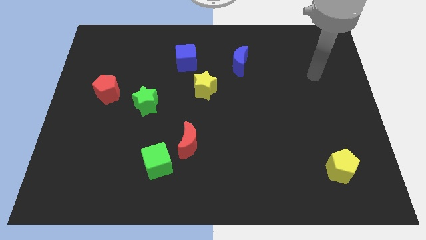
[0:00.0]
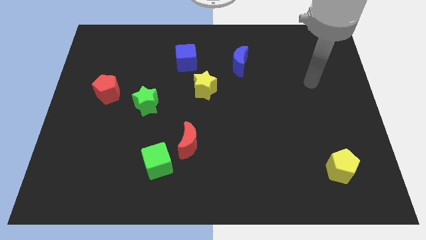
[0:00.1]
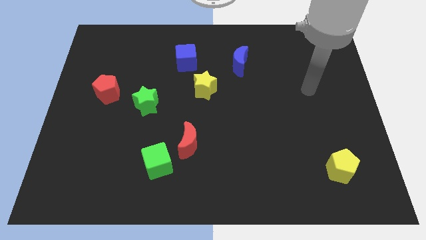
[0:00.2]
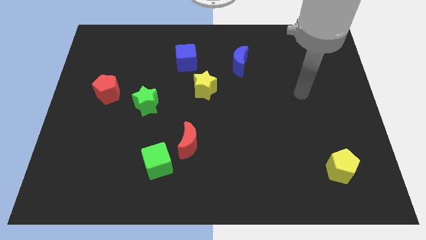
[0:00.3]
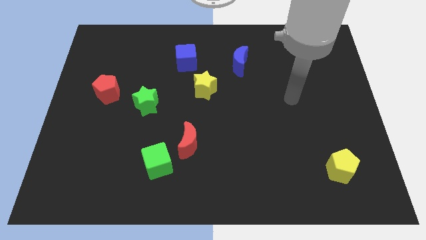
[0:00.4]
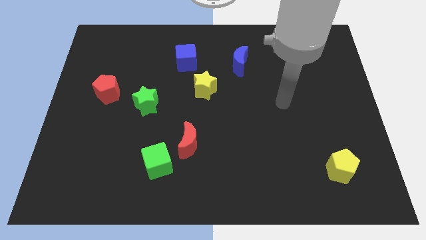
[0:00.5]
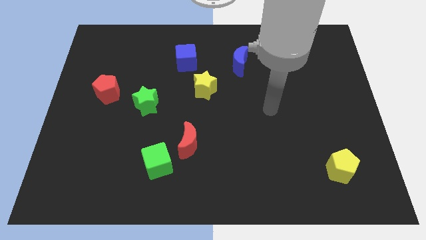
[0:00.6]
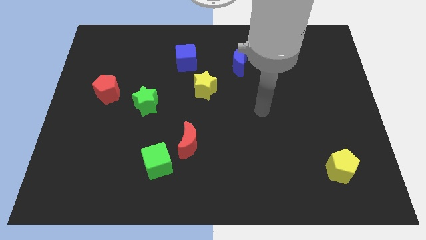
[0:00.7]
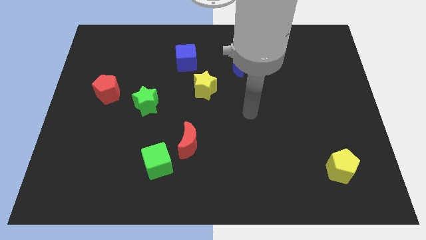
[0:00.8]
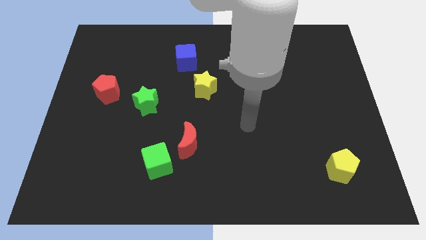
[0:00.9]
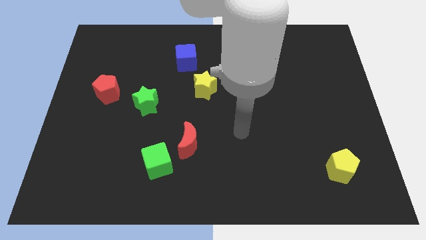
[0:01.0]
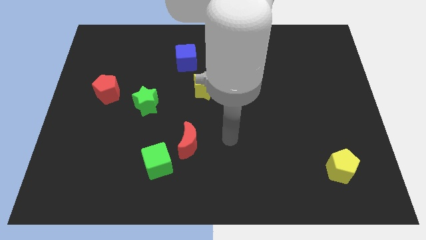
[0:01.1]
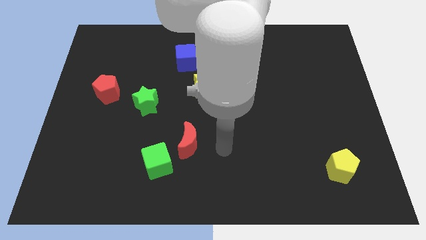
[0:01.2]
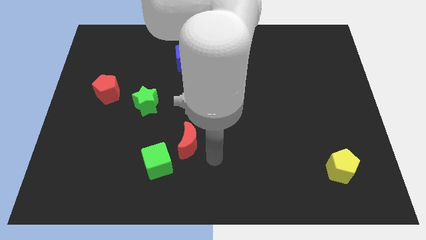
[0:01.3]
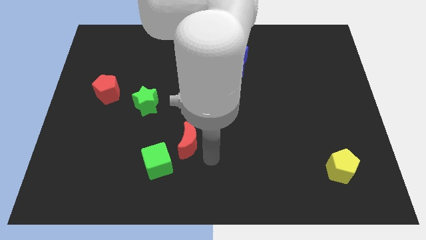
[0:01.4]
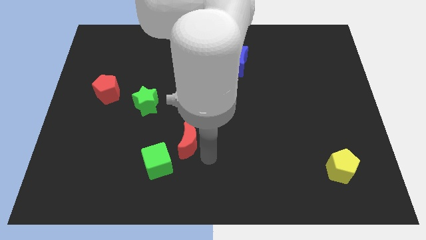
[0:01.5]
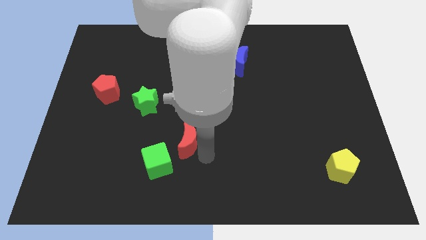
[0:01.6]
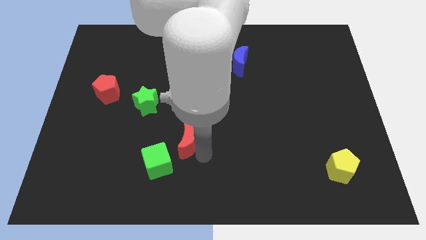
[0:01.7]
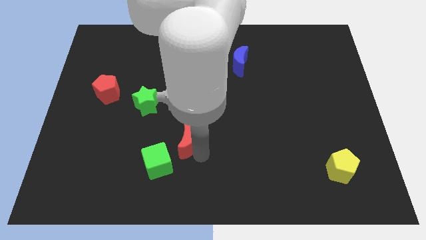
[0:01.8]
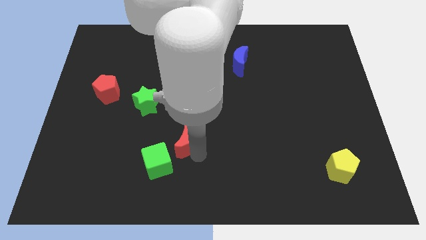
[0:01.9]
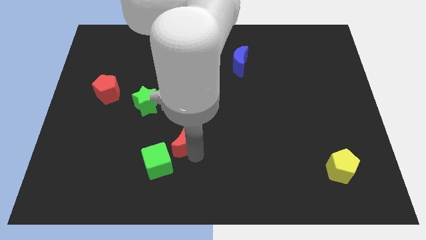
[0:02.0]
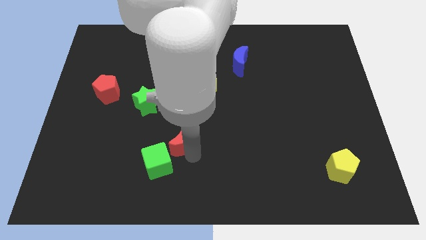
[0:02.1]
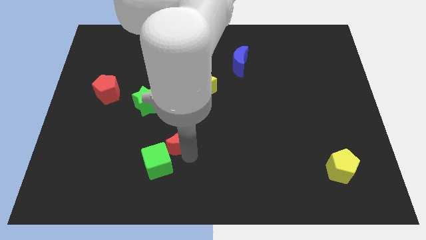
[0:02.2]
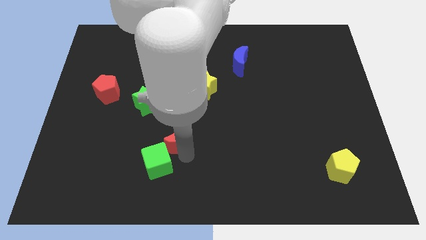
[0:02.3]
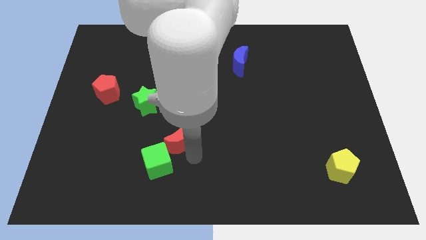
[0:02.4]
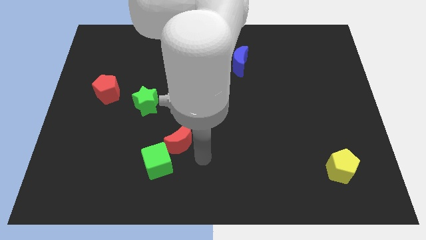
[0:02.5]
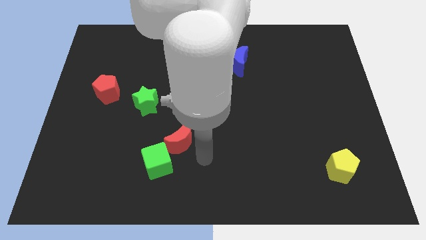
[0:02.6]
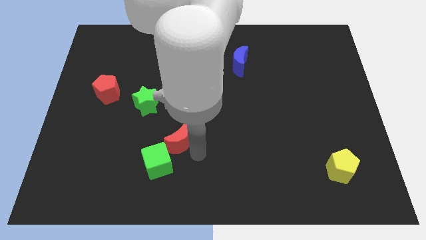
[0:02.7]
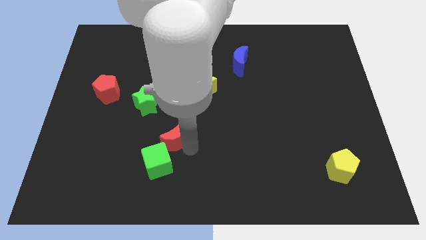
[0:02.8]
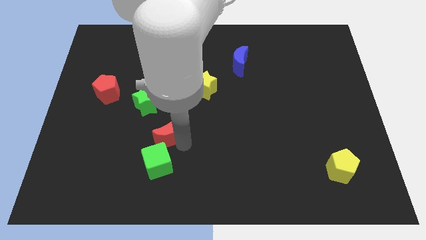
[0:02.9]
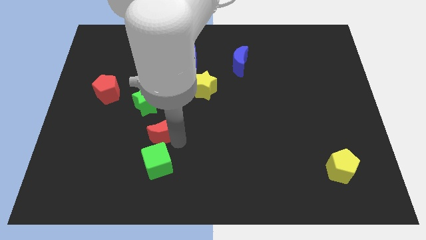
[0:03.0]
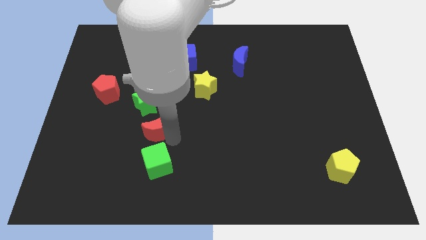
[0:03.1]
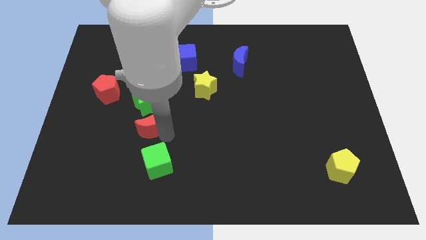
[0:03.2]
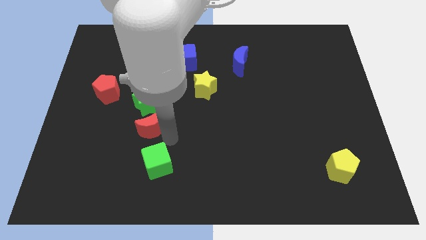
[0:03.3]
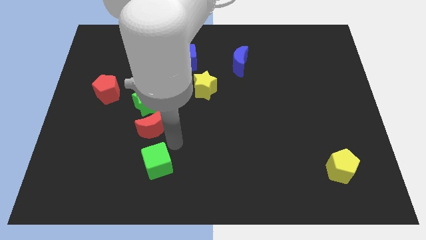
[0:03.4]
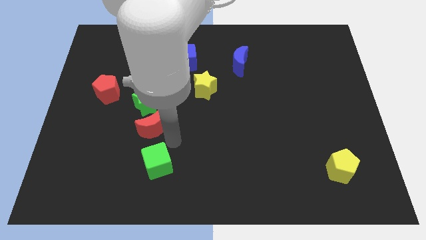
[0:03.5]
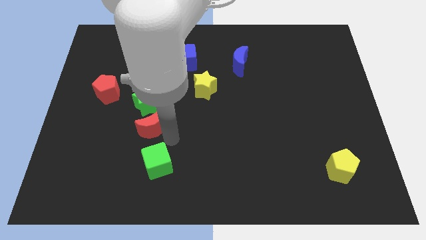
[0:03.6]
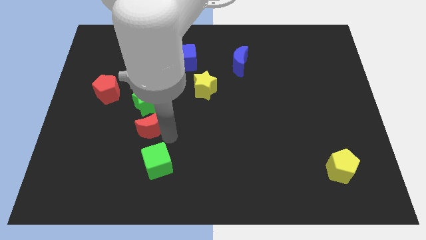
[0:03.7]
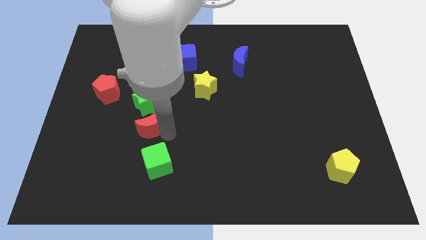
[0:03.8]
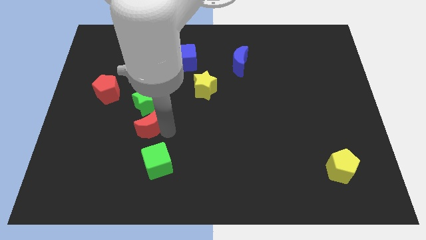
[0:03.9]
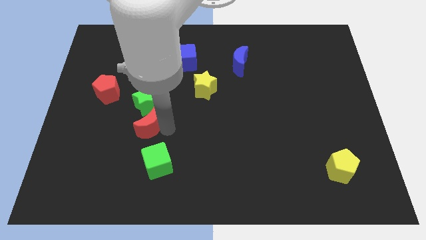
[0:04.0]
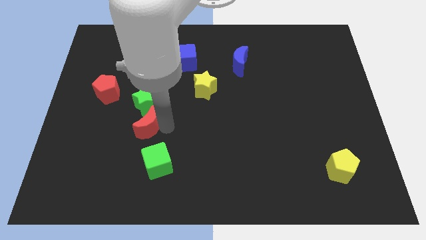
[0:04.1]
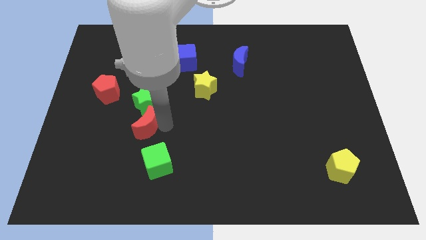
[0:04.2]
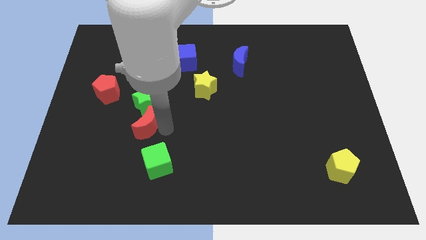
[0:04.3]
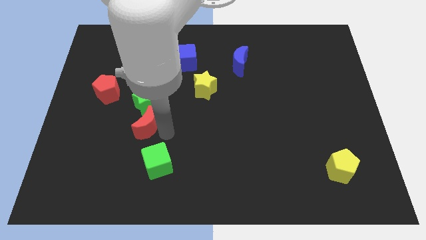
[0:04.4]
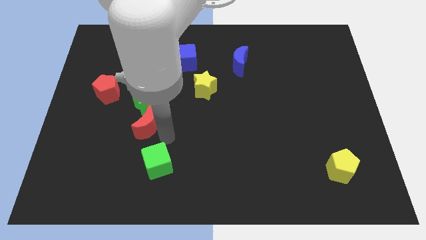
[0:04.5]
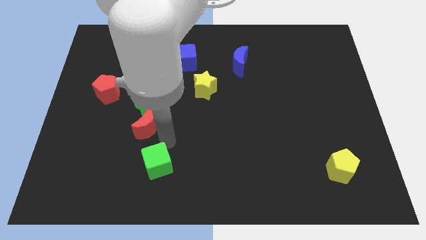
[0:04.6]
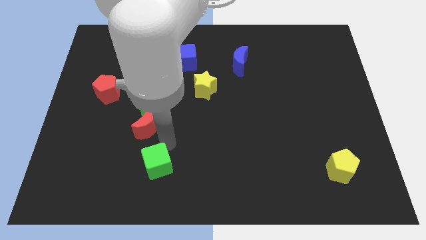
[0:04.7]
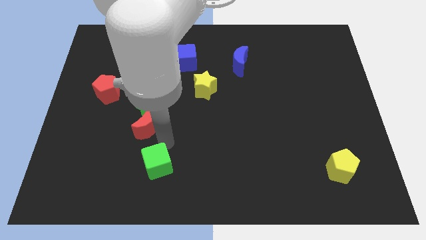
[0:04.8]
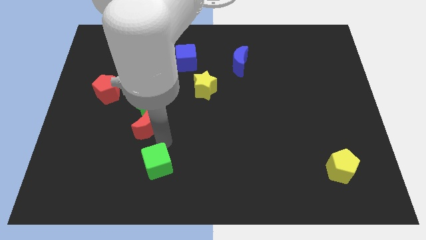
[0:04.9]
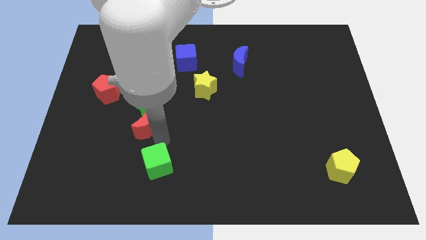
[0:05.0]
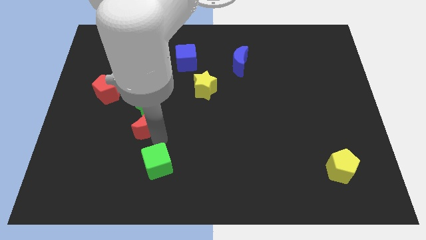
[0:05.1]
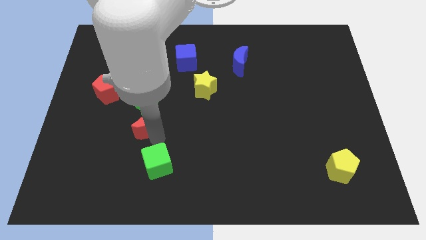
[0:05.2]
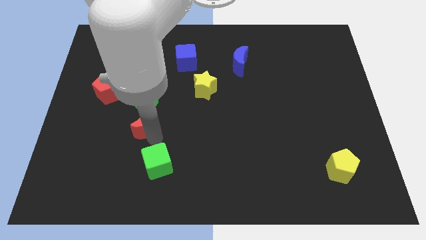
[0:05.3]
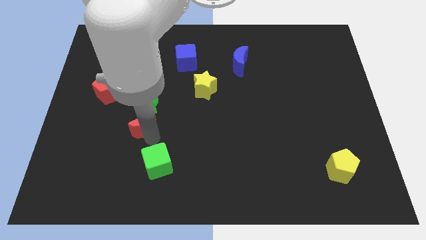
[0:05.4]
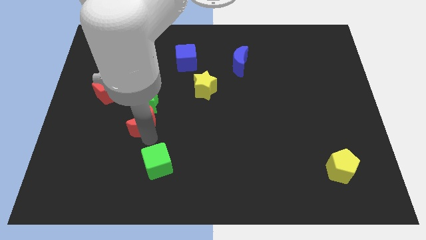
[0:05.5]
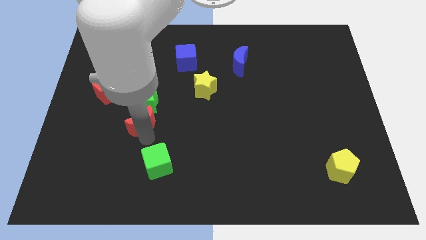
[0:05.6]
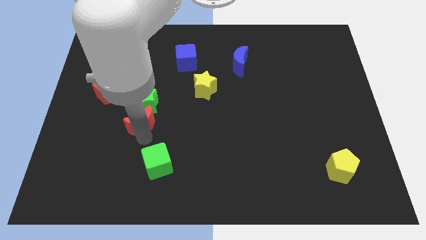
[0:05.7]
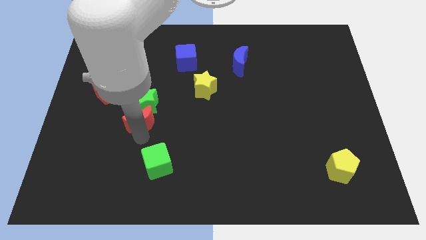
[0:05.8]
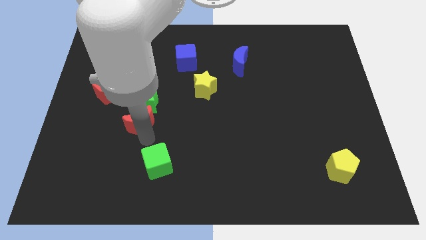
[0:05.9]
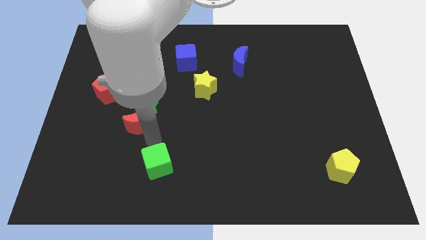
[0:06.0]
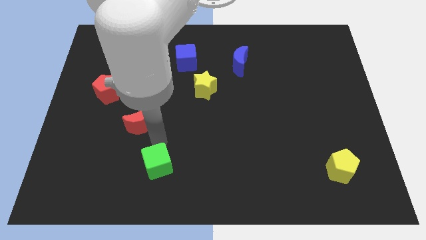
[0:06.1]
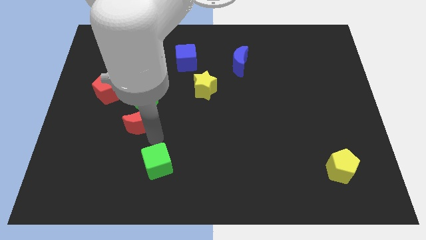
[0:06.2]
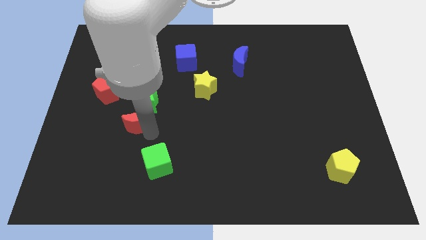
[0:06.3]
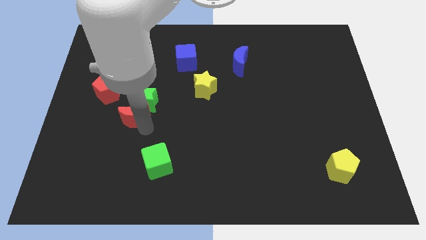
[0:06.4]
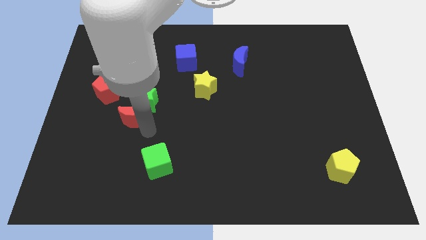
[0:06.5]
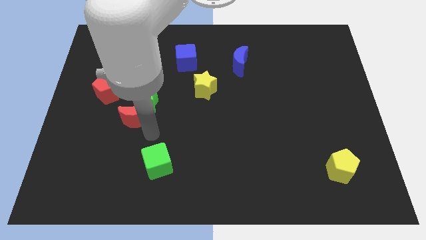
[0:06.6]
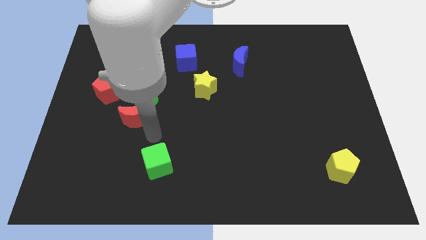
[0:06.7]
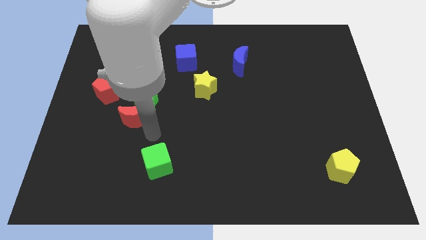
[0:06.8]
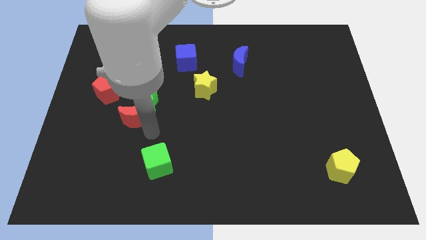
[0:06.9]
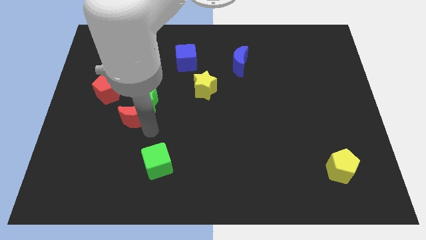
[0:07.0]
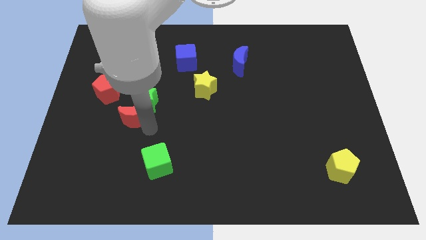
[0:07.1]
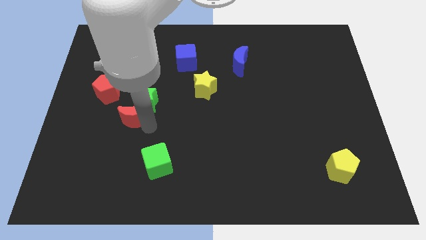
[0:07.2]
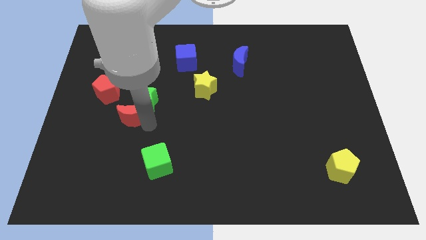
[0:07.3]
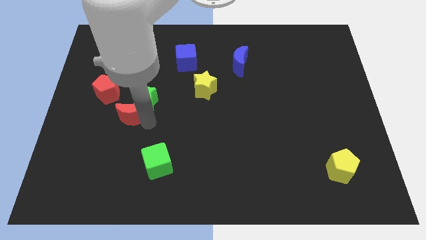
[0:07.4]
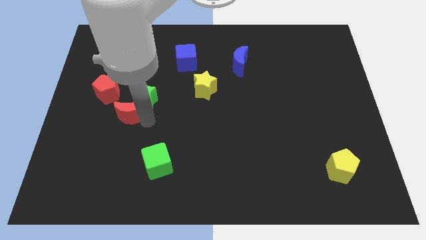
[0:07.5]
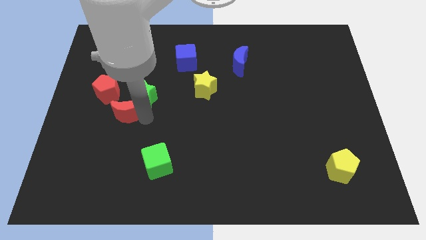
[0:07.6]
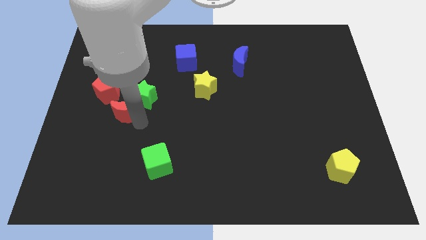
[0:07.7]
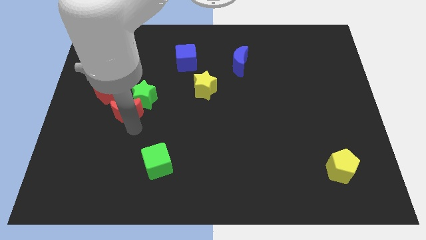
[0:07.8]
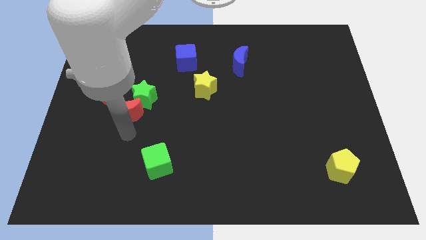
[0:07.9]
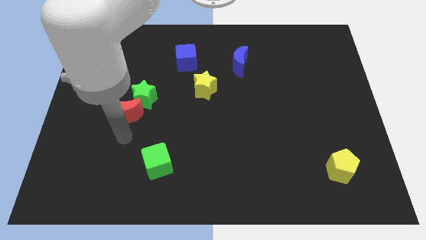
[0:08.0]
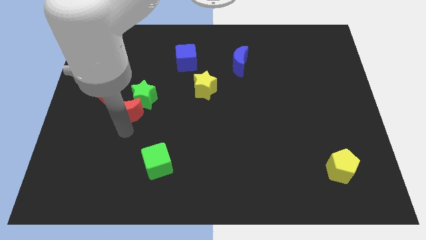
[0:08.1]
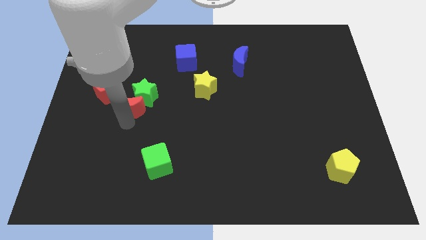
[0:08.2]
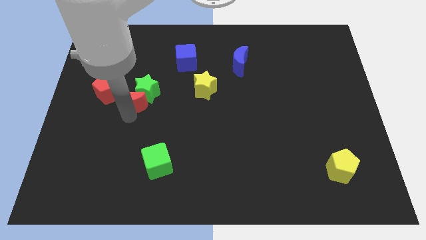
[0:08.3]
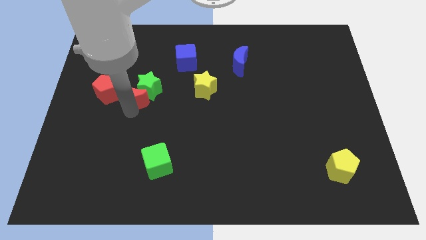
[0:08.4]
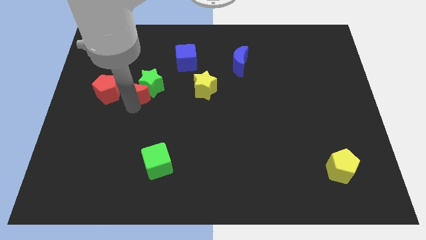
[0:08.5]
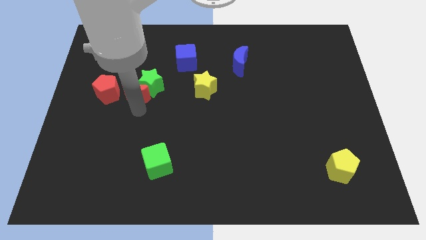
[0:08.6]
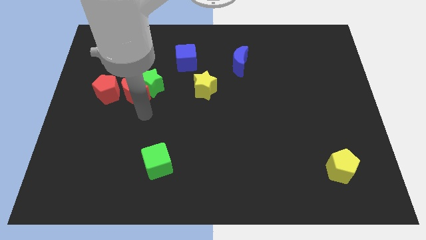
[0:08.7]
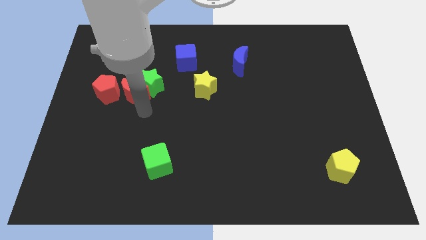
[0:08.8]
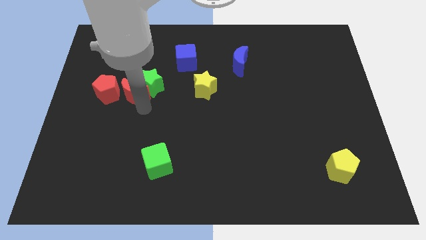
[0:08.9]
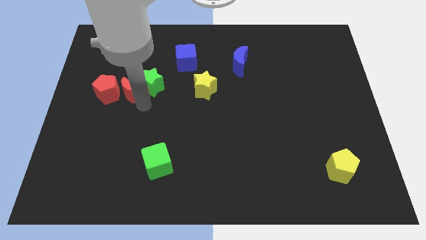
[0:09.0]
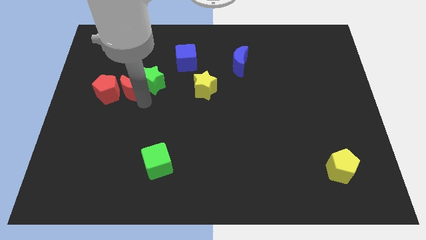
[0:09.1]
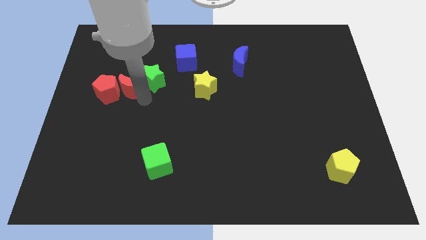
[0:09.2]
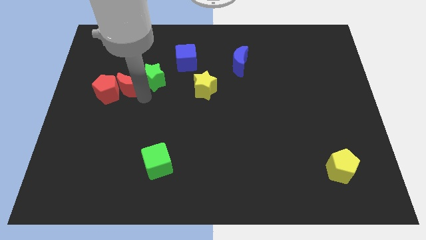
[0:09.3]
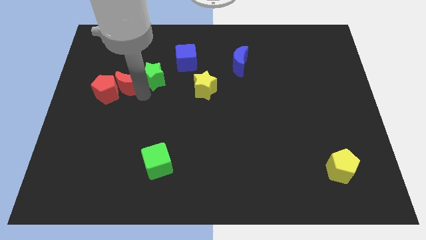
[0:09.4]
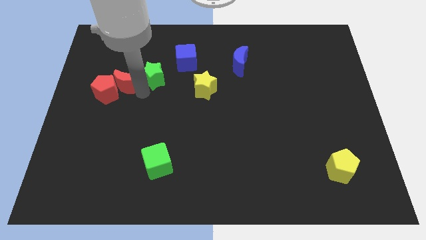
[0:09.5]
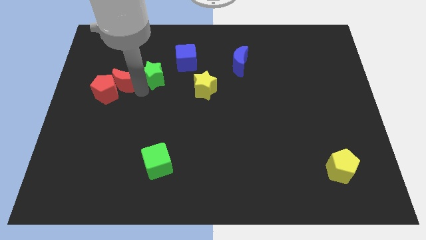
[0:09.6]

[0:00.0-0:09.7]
move the red moon to the top side of the red pentagon
